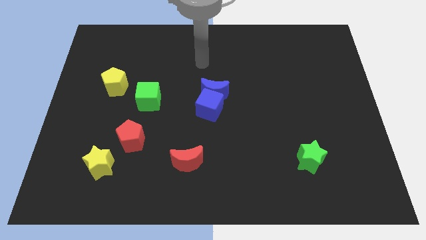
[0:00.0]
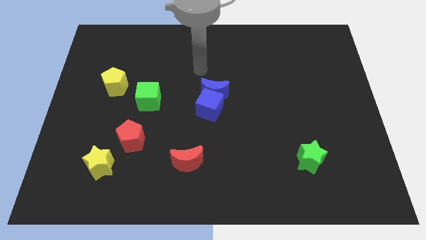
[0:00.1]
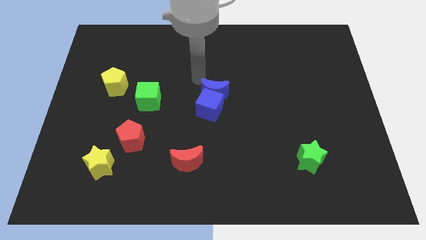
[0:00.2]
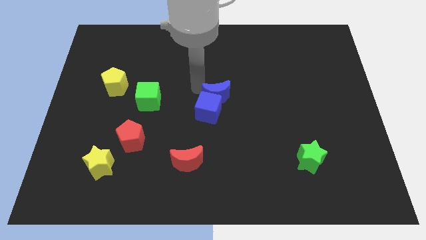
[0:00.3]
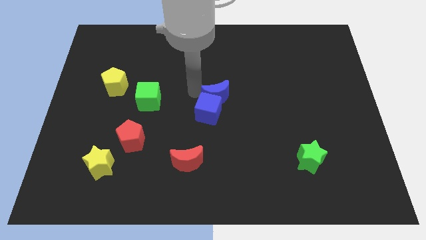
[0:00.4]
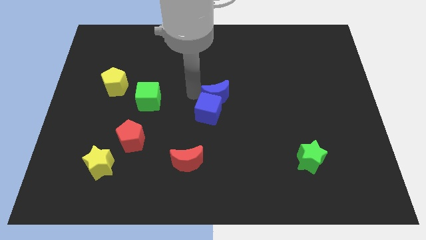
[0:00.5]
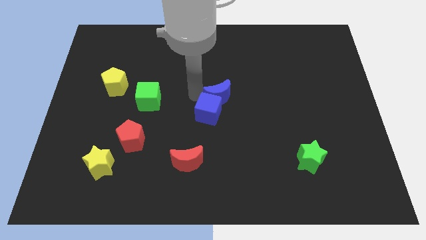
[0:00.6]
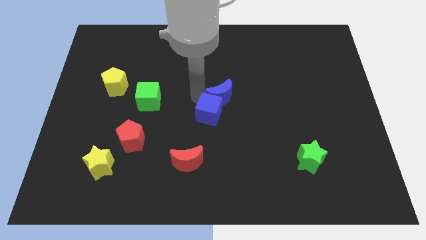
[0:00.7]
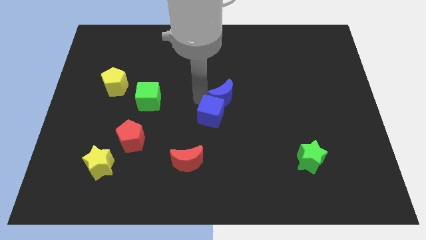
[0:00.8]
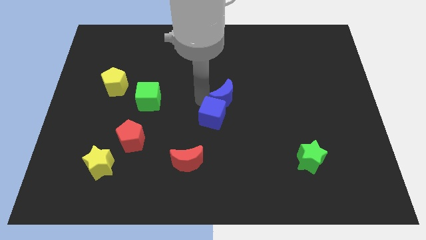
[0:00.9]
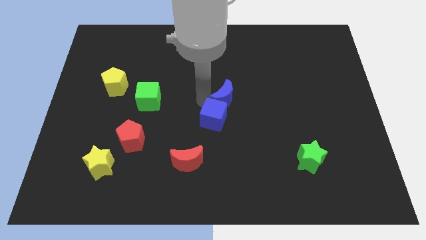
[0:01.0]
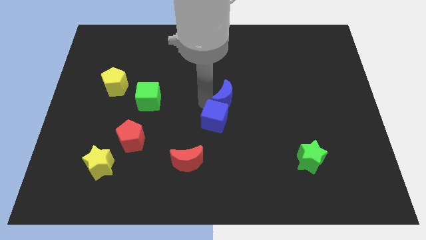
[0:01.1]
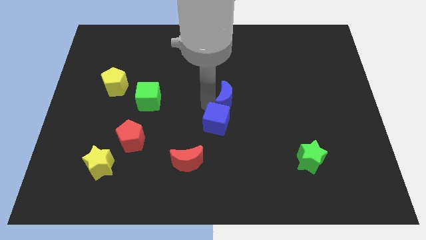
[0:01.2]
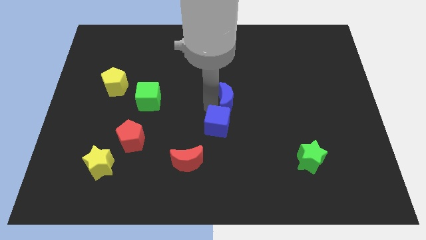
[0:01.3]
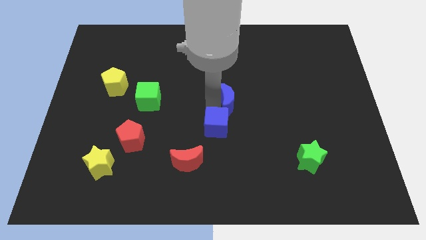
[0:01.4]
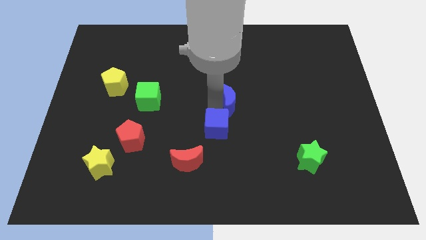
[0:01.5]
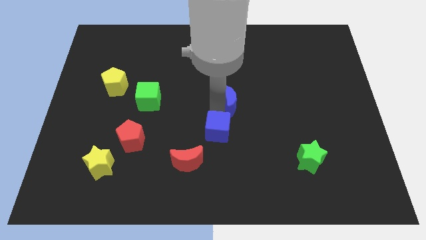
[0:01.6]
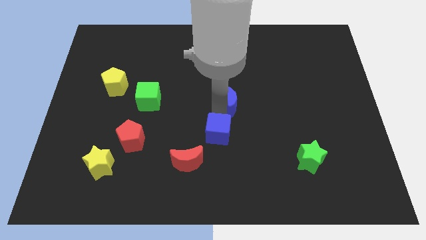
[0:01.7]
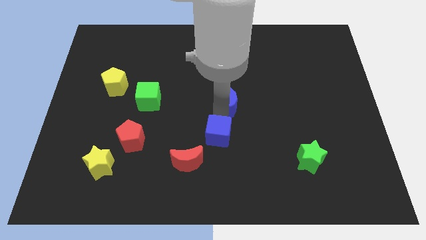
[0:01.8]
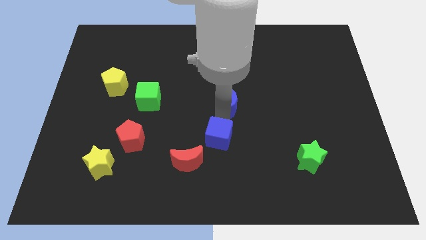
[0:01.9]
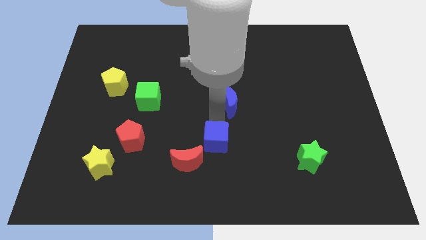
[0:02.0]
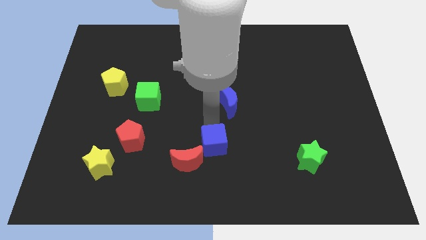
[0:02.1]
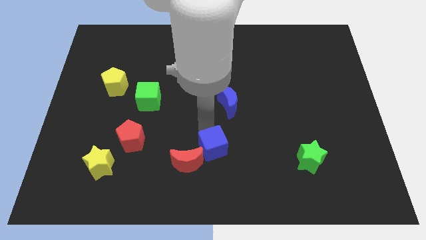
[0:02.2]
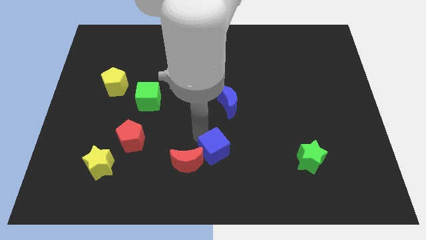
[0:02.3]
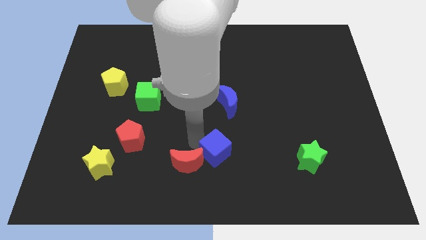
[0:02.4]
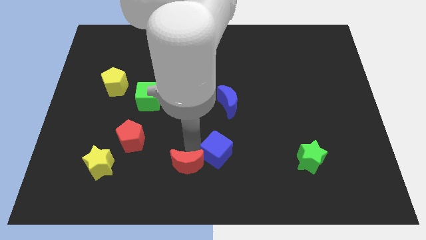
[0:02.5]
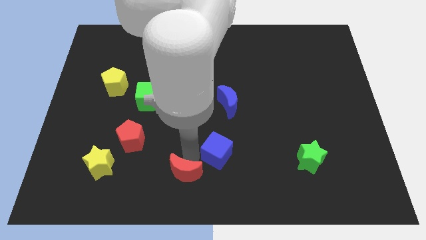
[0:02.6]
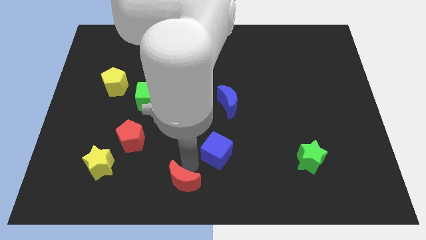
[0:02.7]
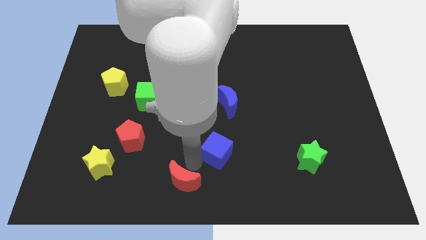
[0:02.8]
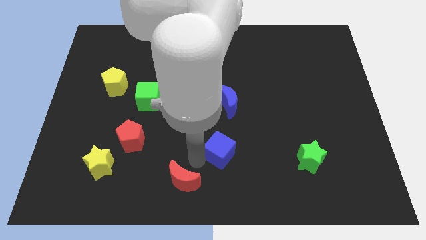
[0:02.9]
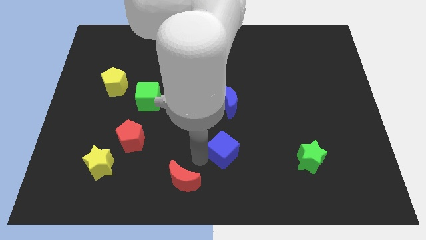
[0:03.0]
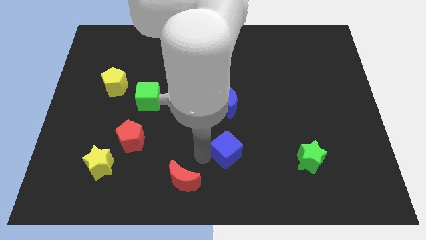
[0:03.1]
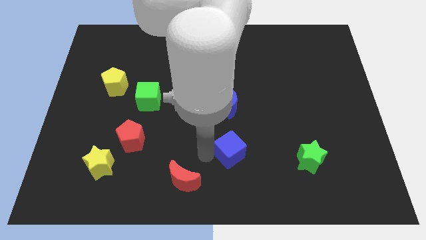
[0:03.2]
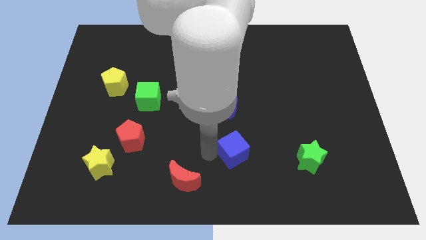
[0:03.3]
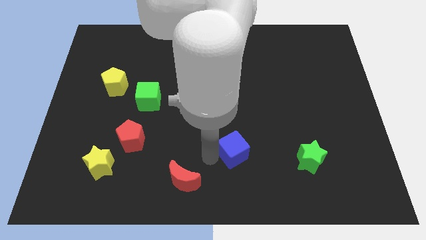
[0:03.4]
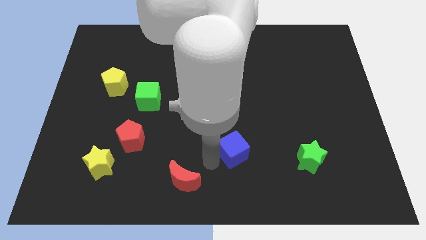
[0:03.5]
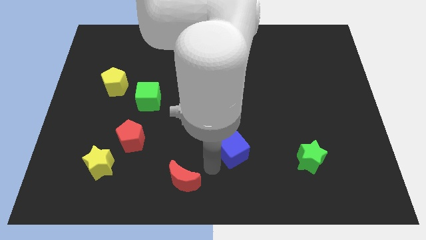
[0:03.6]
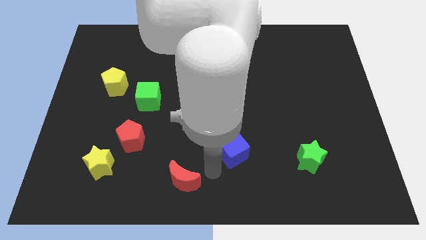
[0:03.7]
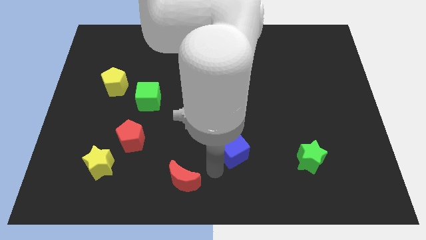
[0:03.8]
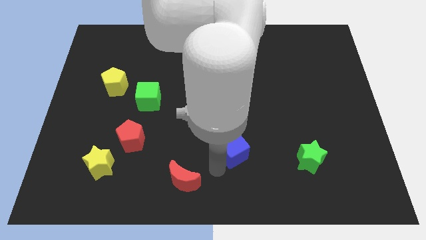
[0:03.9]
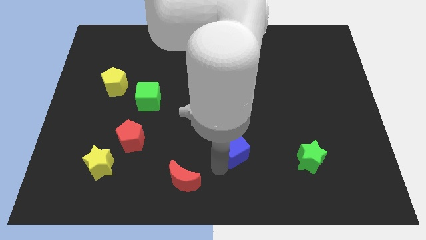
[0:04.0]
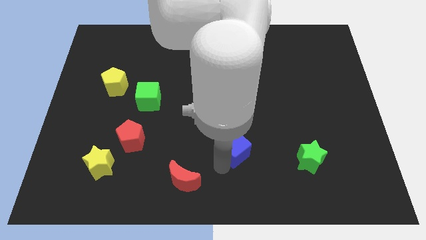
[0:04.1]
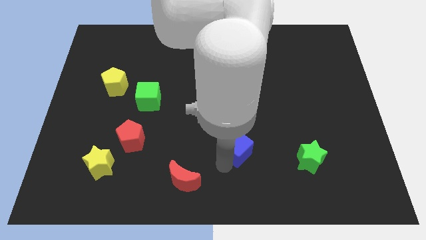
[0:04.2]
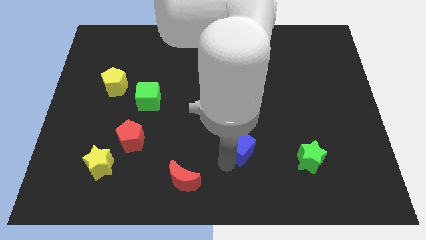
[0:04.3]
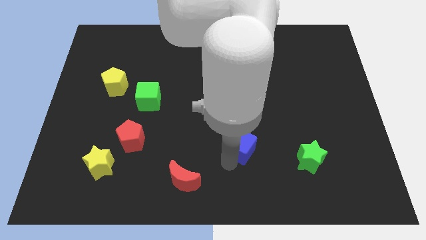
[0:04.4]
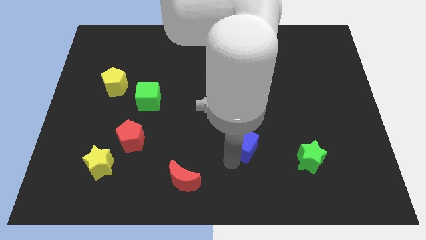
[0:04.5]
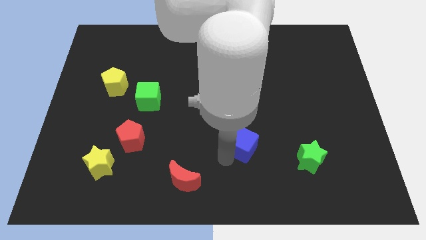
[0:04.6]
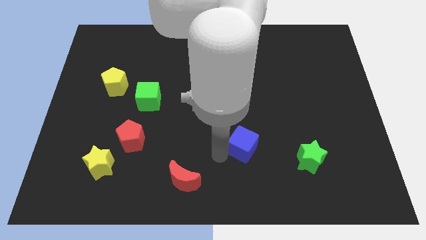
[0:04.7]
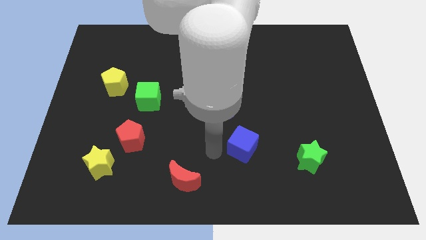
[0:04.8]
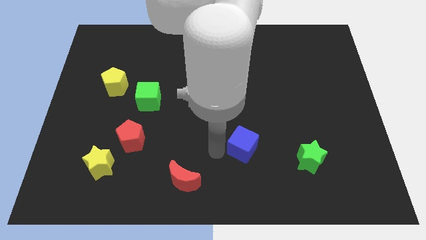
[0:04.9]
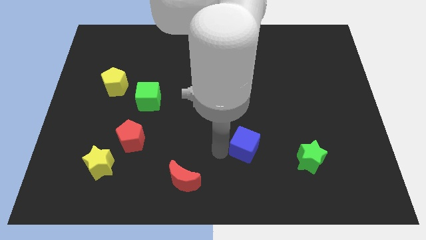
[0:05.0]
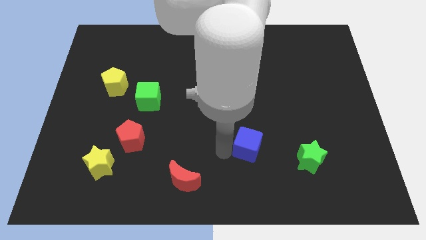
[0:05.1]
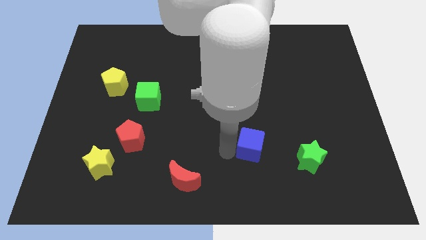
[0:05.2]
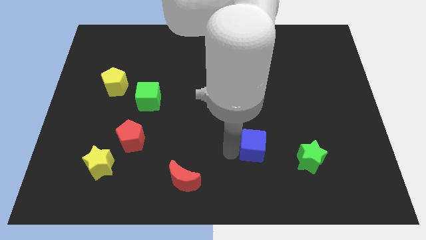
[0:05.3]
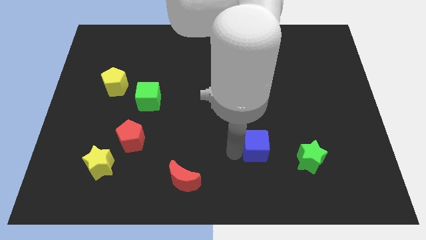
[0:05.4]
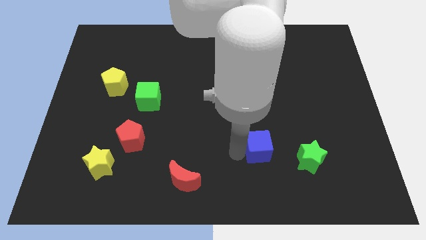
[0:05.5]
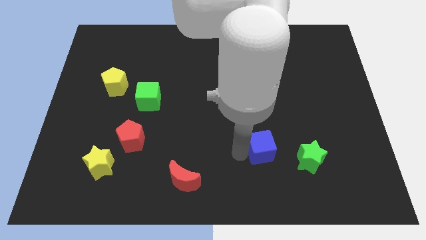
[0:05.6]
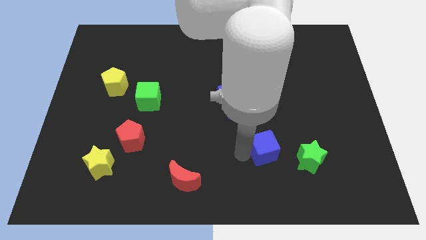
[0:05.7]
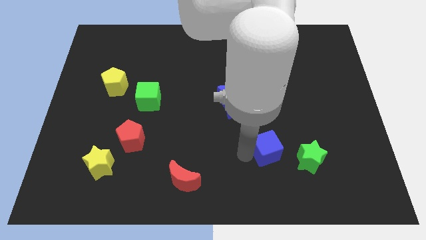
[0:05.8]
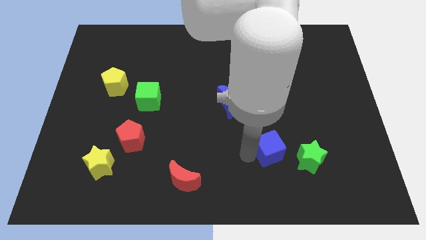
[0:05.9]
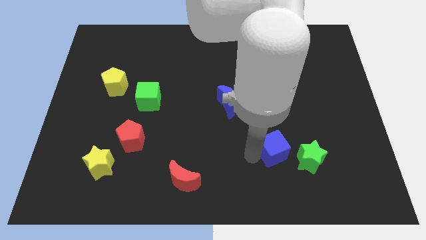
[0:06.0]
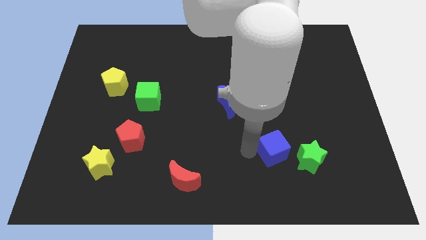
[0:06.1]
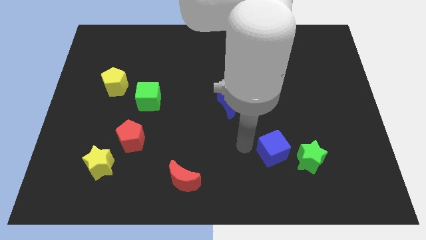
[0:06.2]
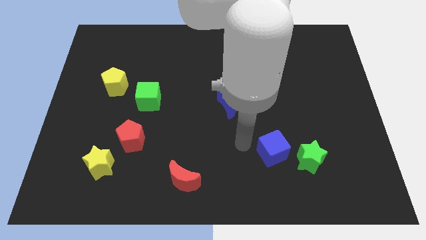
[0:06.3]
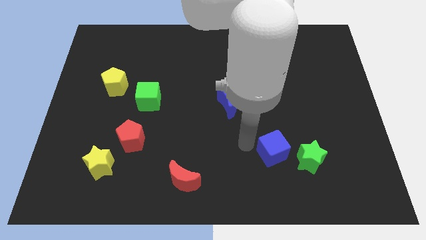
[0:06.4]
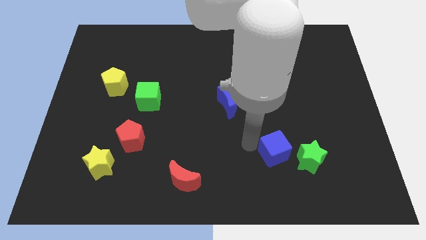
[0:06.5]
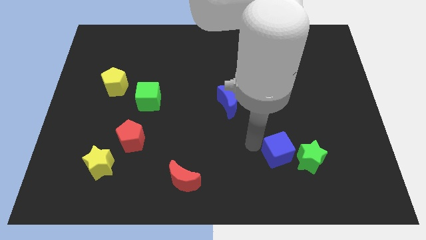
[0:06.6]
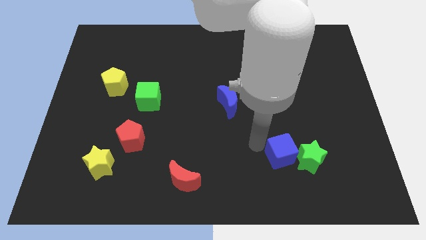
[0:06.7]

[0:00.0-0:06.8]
slide the blue cube towards the green star
